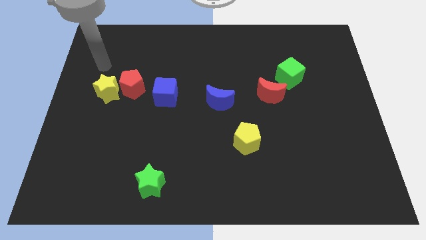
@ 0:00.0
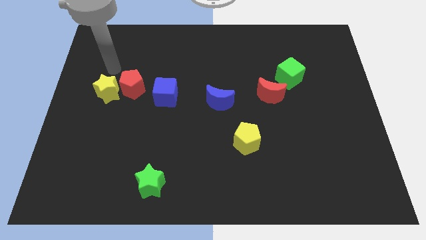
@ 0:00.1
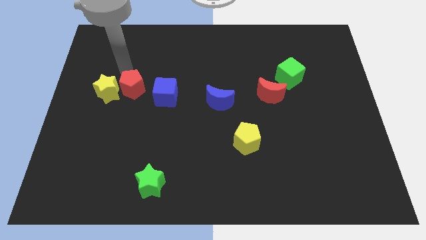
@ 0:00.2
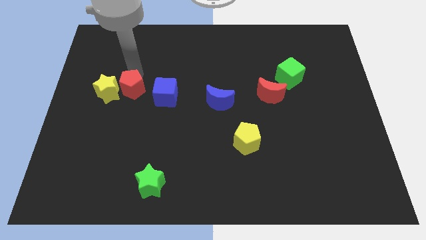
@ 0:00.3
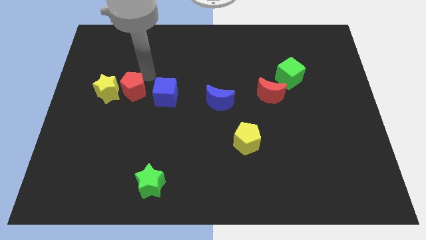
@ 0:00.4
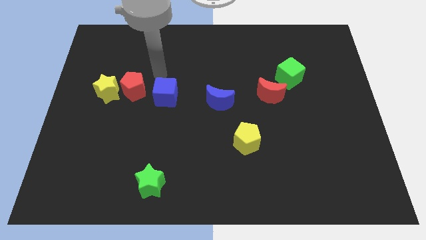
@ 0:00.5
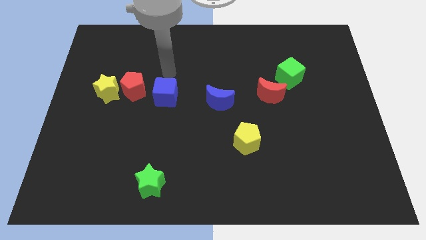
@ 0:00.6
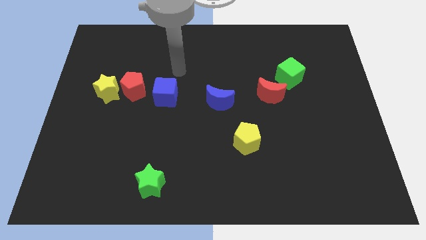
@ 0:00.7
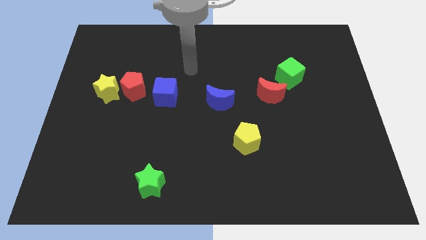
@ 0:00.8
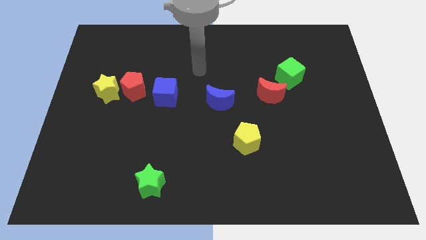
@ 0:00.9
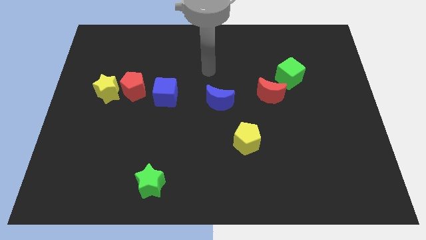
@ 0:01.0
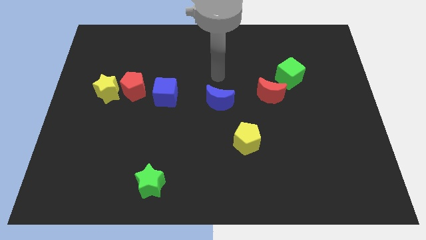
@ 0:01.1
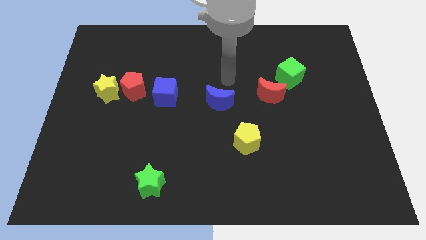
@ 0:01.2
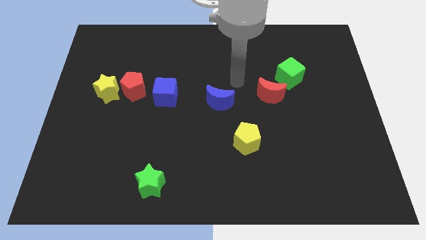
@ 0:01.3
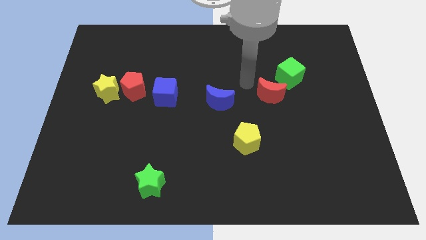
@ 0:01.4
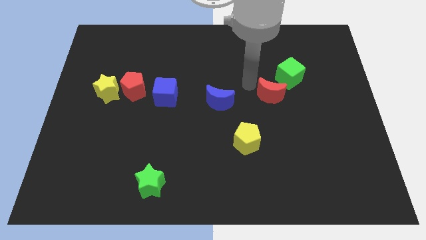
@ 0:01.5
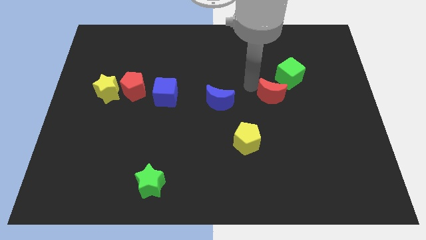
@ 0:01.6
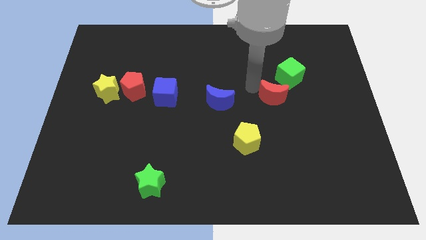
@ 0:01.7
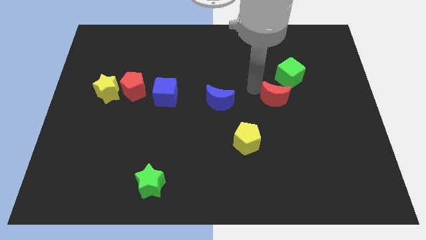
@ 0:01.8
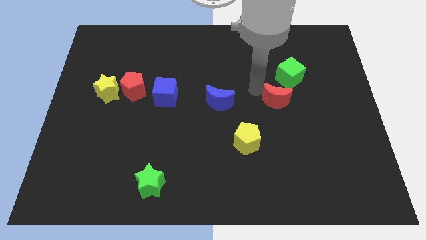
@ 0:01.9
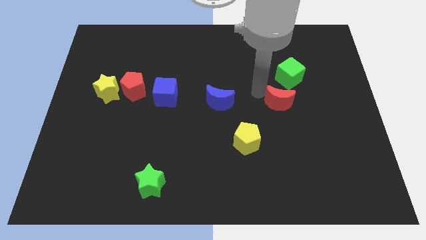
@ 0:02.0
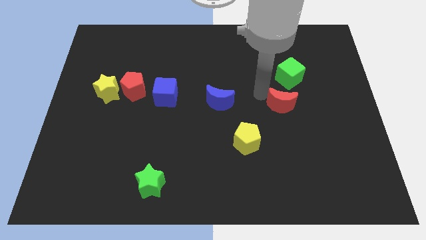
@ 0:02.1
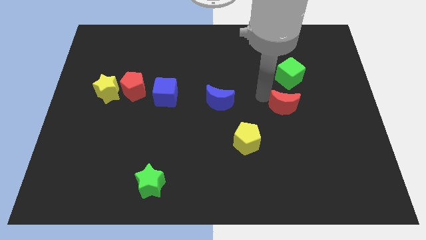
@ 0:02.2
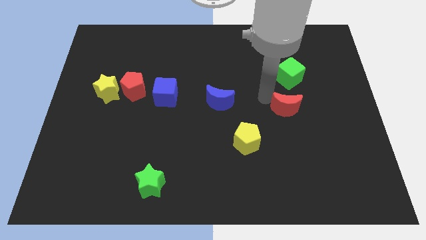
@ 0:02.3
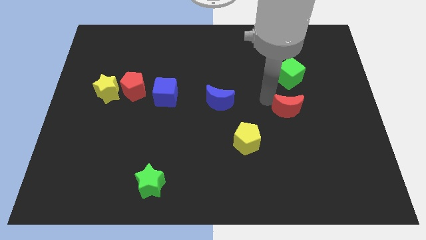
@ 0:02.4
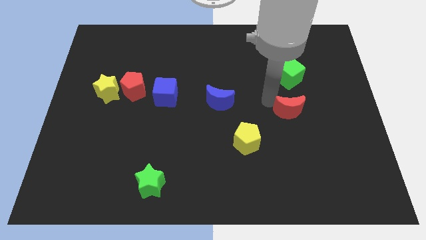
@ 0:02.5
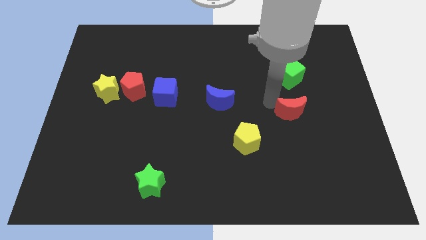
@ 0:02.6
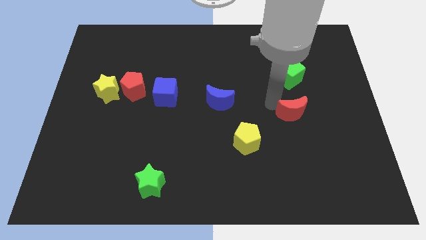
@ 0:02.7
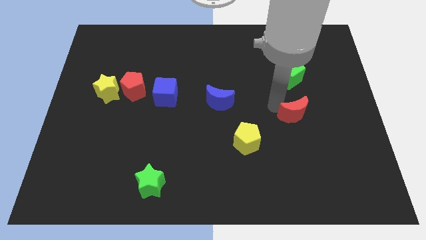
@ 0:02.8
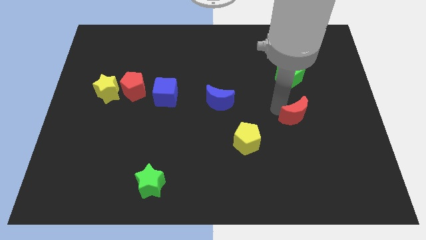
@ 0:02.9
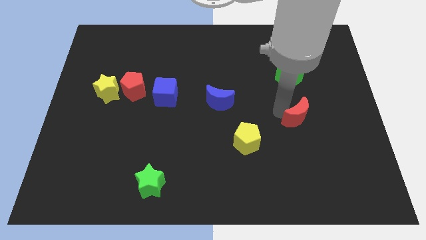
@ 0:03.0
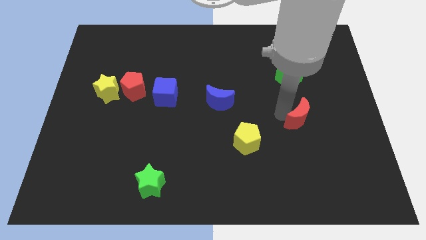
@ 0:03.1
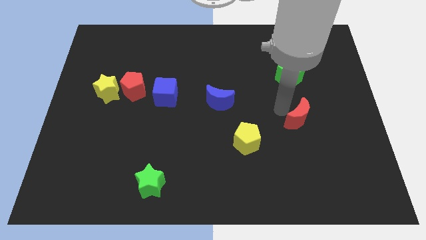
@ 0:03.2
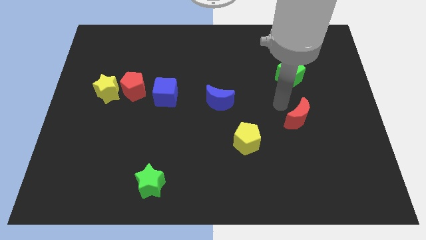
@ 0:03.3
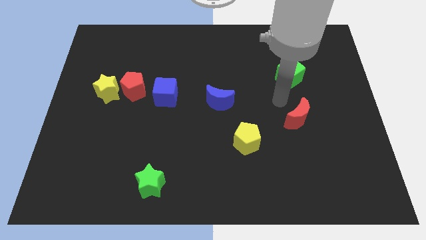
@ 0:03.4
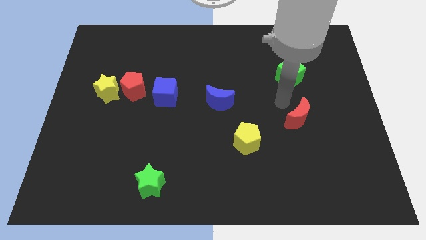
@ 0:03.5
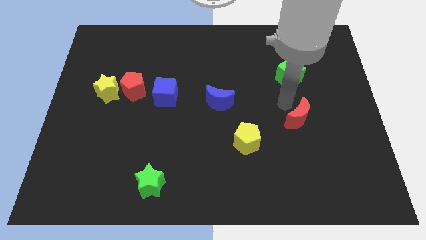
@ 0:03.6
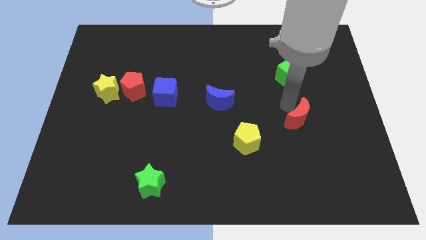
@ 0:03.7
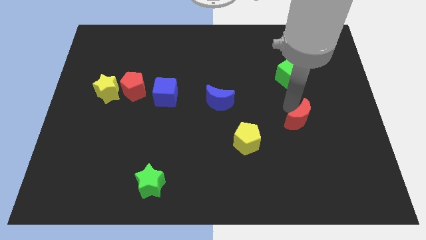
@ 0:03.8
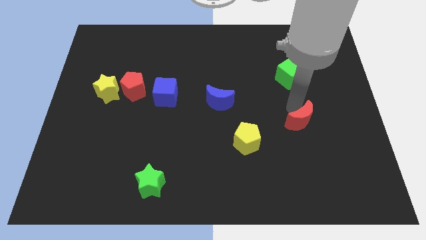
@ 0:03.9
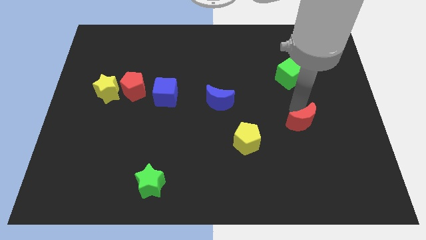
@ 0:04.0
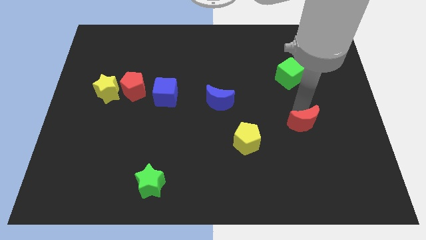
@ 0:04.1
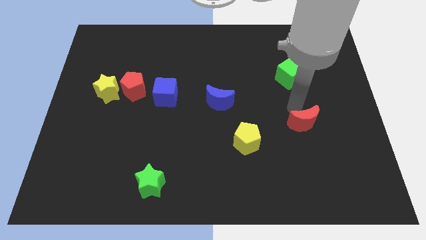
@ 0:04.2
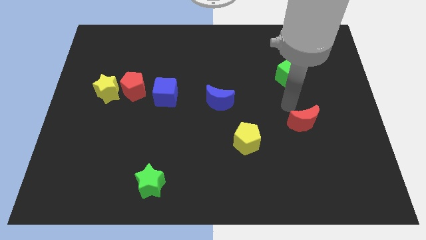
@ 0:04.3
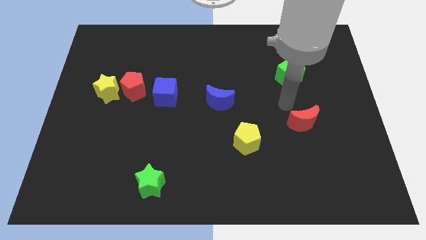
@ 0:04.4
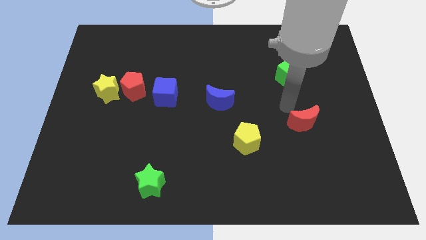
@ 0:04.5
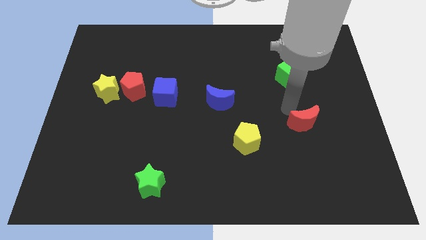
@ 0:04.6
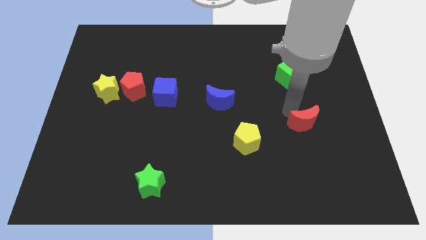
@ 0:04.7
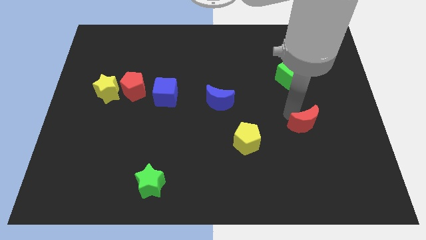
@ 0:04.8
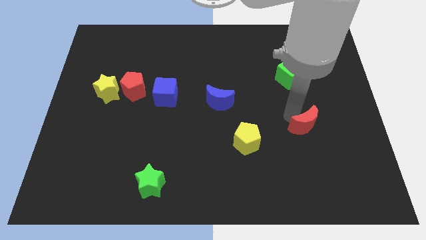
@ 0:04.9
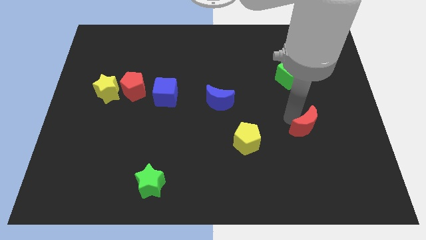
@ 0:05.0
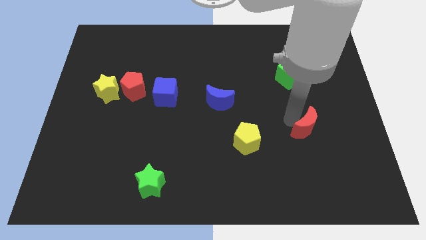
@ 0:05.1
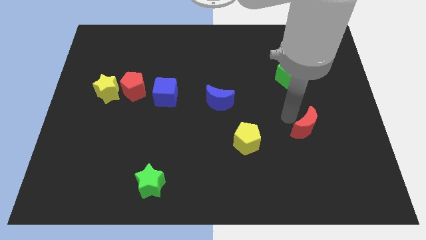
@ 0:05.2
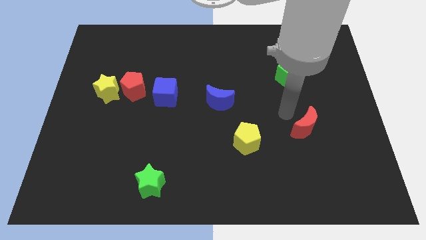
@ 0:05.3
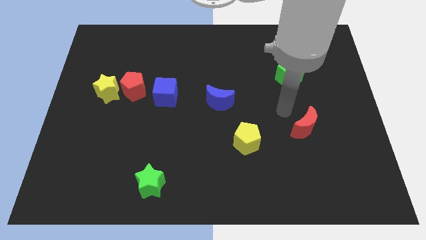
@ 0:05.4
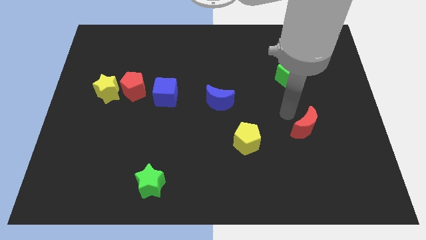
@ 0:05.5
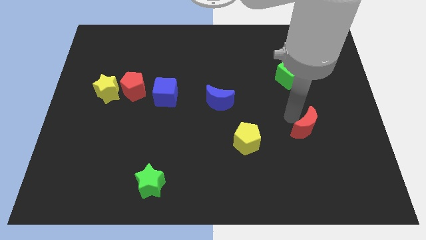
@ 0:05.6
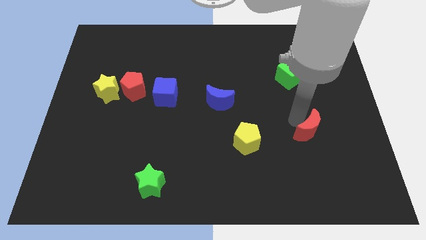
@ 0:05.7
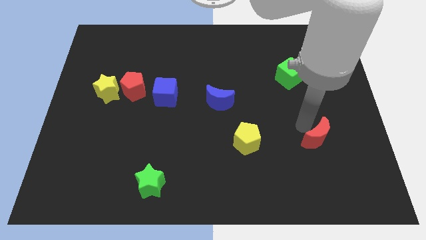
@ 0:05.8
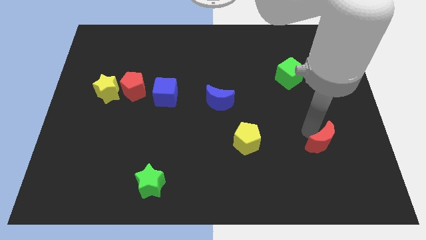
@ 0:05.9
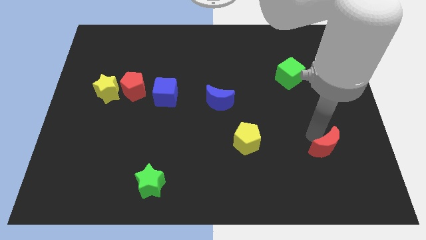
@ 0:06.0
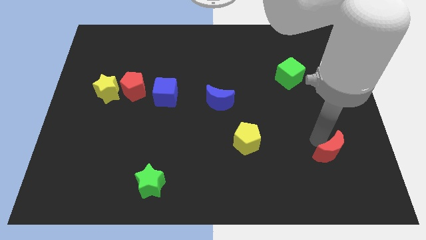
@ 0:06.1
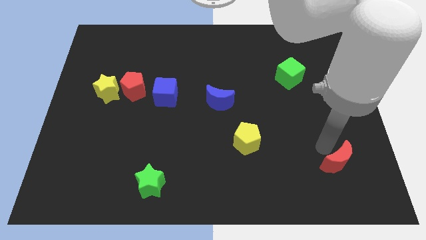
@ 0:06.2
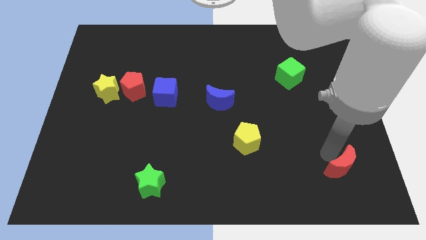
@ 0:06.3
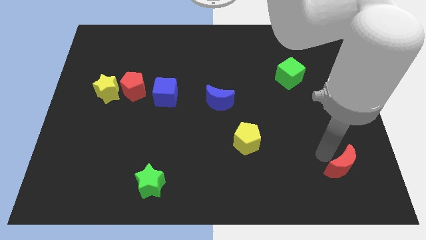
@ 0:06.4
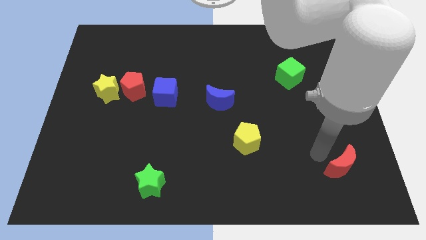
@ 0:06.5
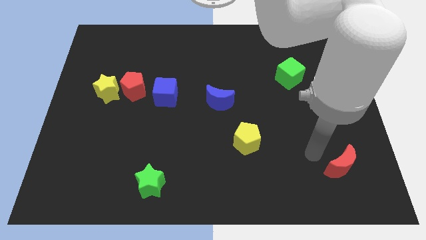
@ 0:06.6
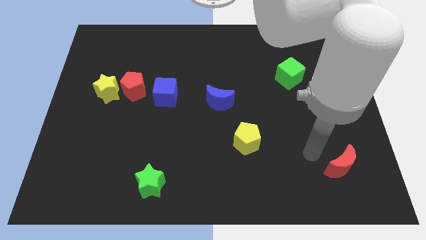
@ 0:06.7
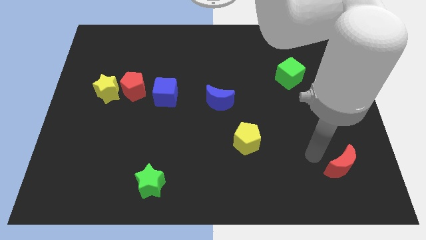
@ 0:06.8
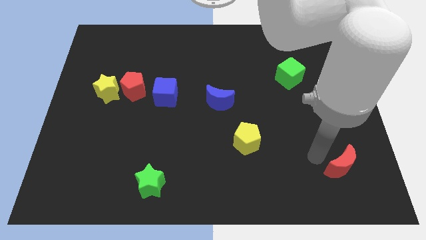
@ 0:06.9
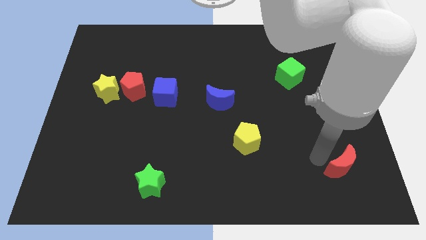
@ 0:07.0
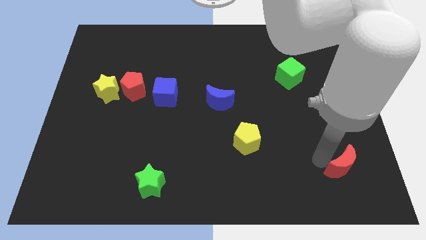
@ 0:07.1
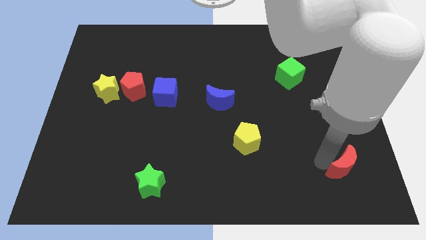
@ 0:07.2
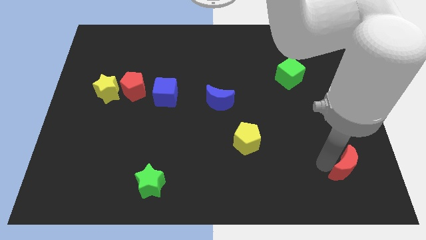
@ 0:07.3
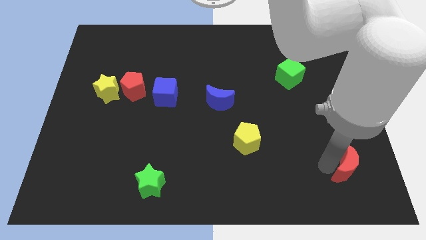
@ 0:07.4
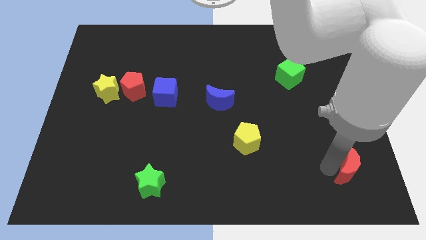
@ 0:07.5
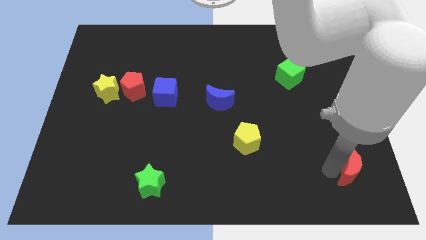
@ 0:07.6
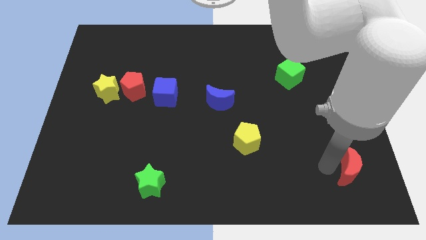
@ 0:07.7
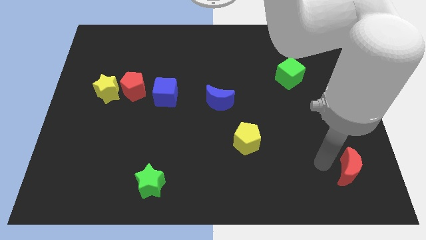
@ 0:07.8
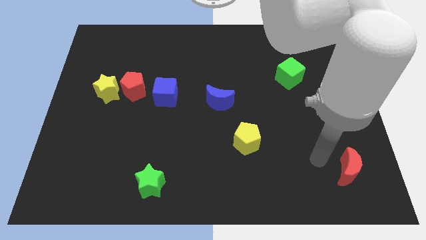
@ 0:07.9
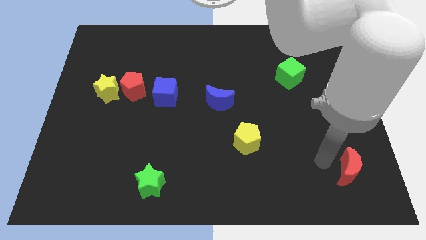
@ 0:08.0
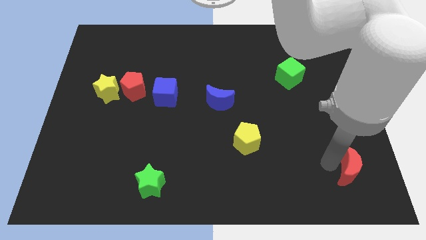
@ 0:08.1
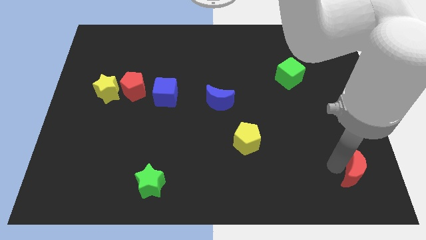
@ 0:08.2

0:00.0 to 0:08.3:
push the red moon to the bottom right corner
